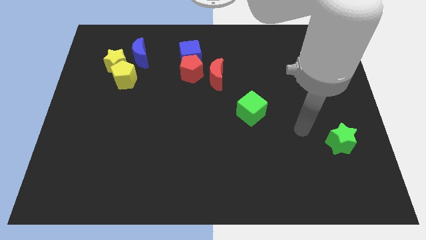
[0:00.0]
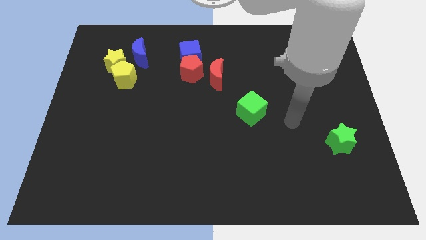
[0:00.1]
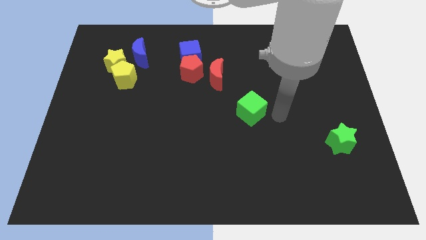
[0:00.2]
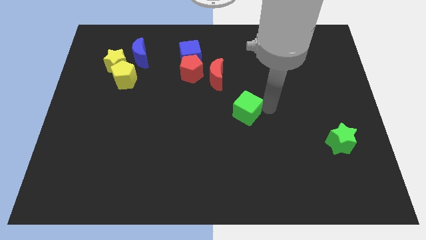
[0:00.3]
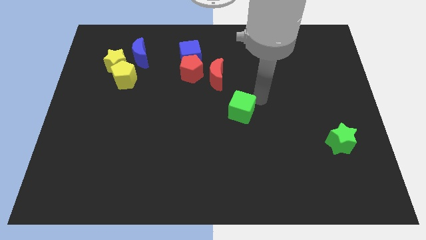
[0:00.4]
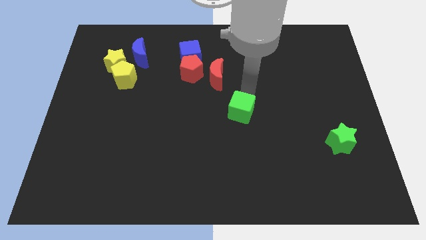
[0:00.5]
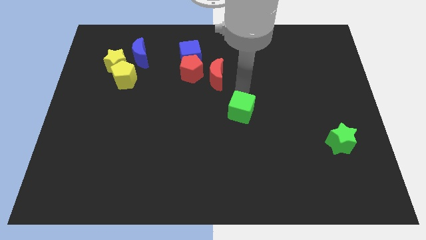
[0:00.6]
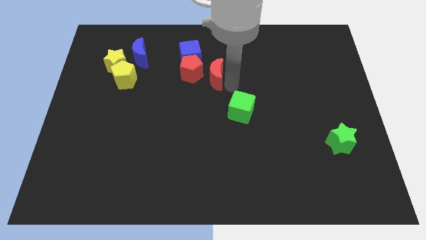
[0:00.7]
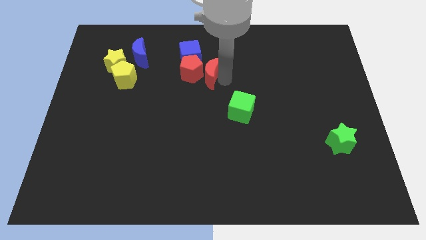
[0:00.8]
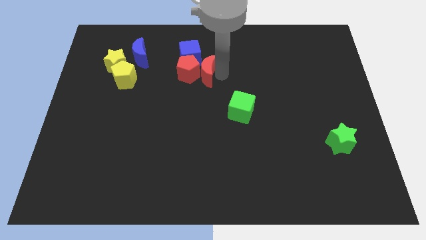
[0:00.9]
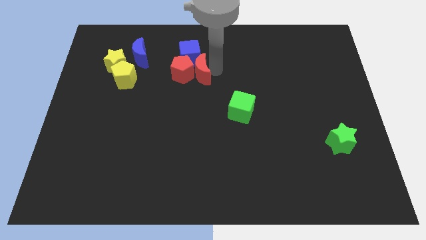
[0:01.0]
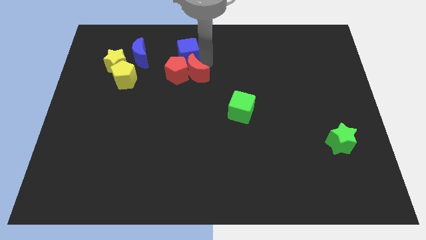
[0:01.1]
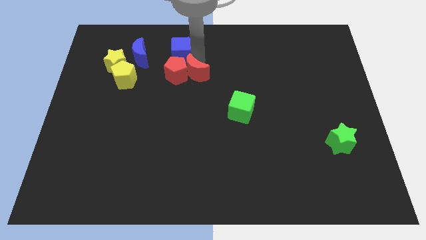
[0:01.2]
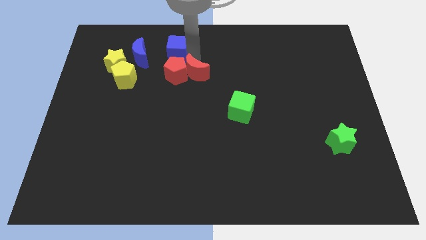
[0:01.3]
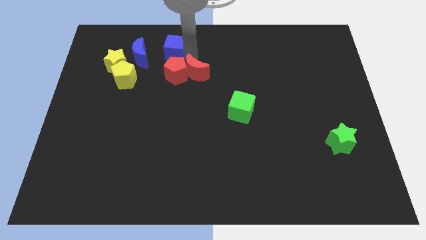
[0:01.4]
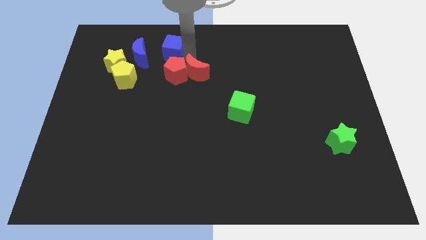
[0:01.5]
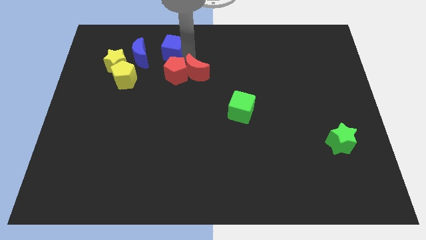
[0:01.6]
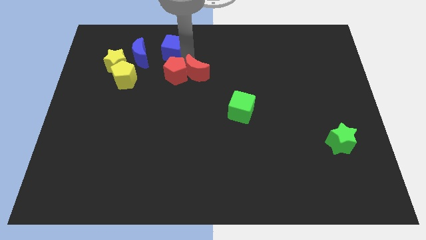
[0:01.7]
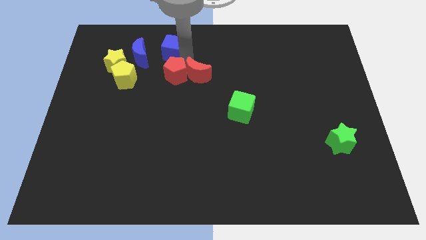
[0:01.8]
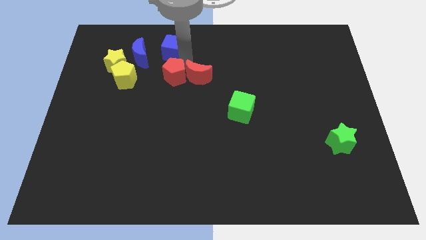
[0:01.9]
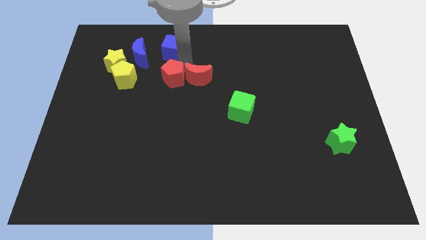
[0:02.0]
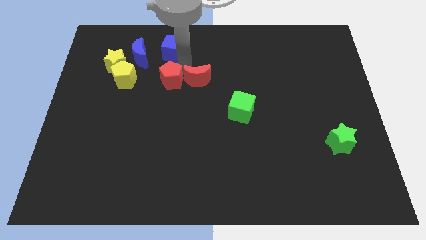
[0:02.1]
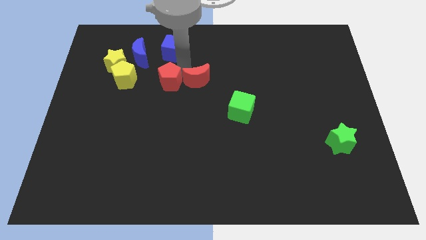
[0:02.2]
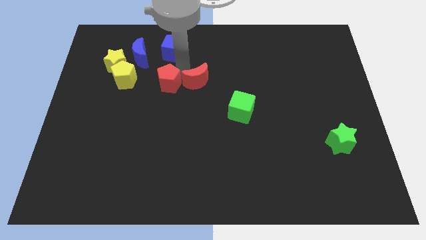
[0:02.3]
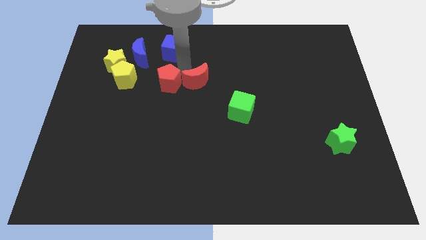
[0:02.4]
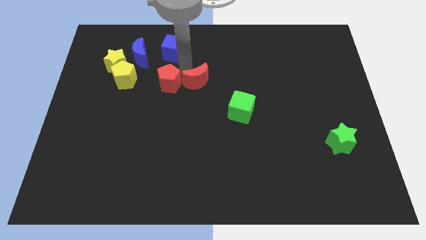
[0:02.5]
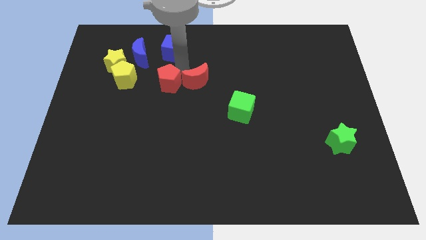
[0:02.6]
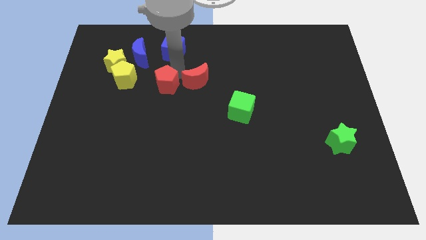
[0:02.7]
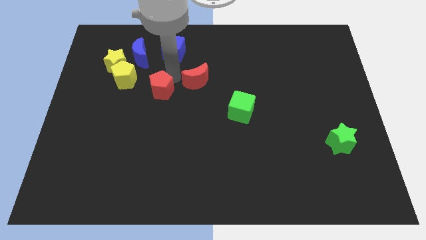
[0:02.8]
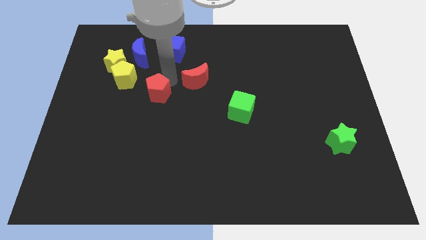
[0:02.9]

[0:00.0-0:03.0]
pull the red pentagon apart from the blue cube and red moon

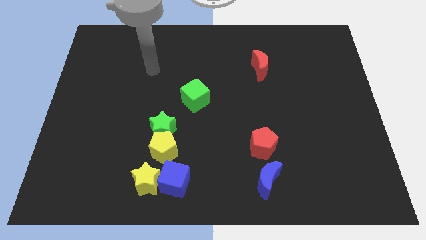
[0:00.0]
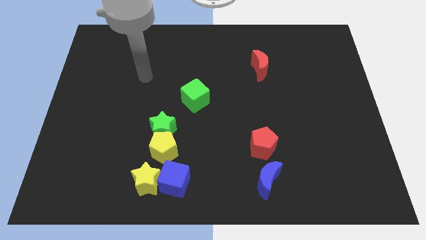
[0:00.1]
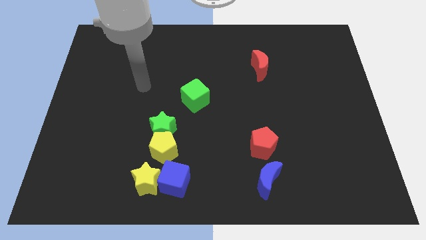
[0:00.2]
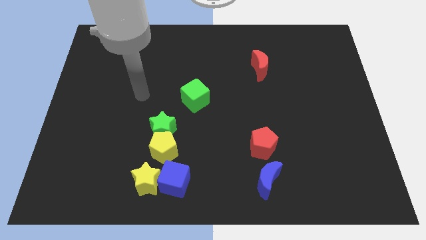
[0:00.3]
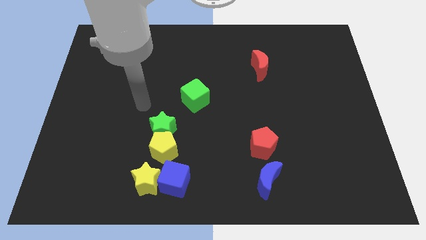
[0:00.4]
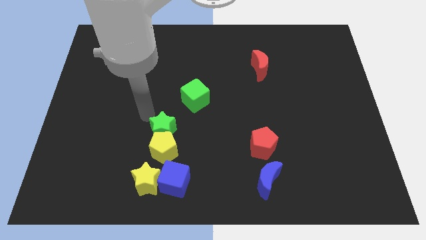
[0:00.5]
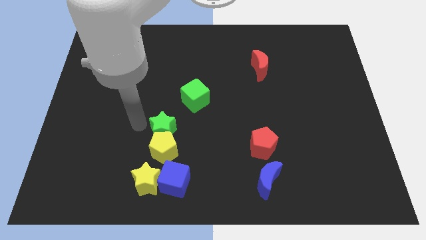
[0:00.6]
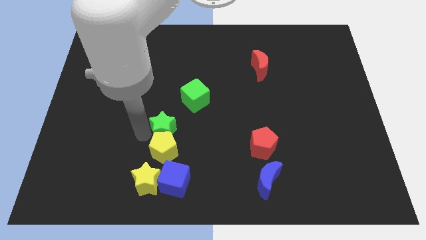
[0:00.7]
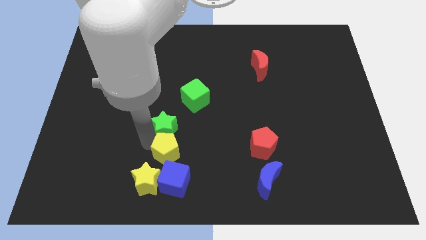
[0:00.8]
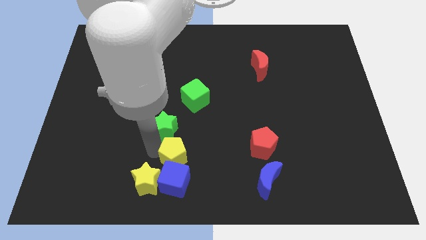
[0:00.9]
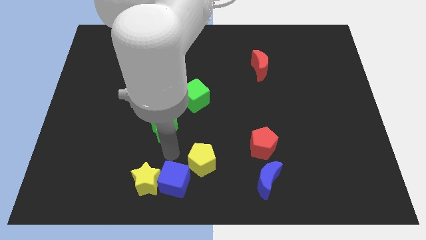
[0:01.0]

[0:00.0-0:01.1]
pull the green star apart from the yellow pentagon

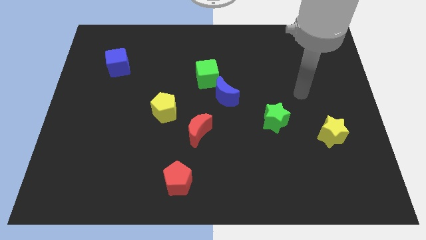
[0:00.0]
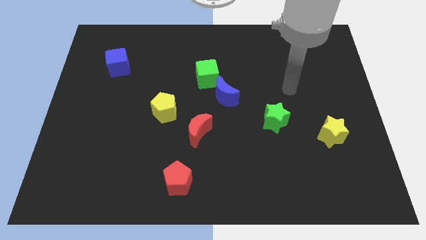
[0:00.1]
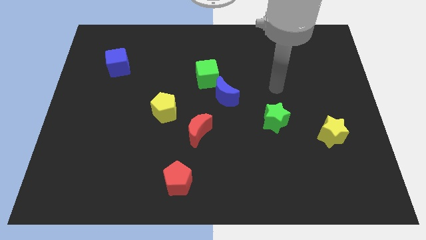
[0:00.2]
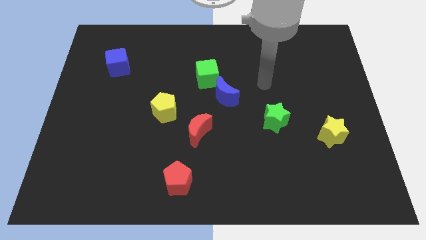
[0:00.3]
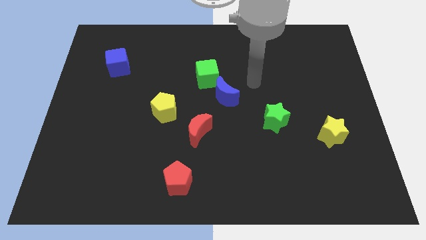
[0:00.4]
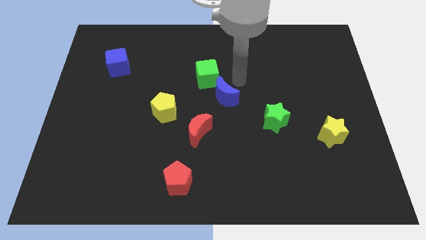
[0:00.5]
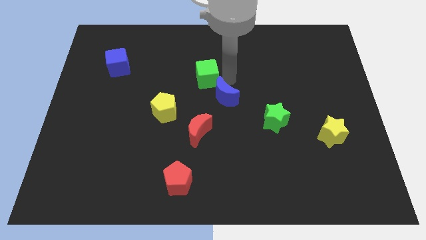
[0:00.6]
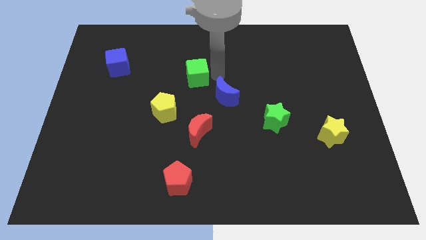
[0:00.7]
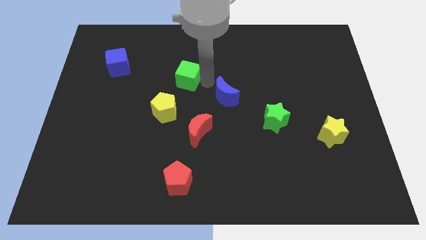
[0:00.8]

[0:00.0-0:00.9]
pull the blue moon apart from the green cube

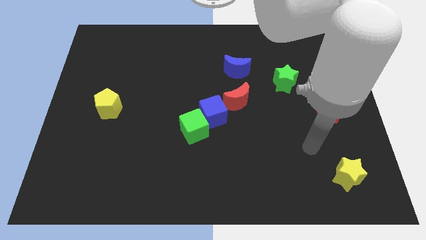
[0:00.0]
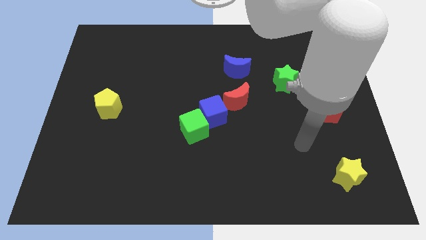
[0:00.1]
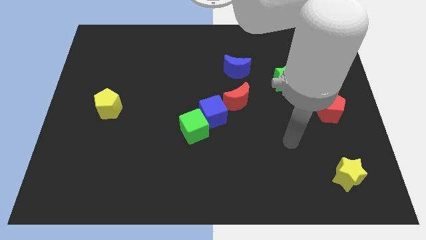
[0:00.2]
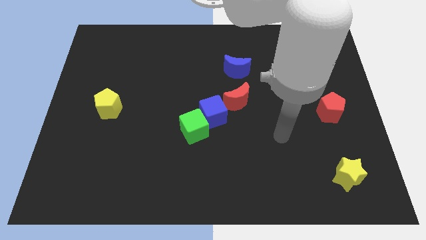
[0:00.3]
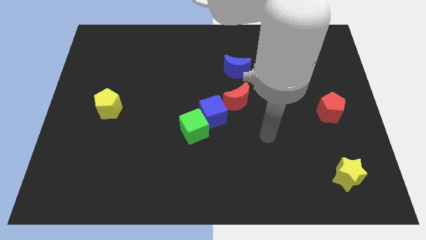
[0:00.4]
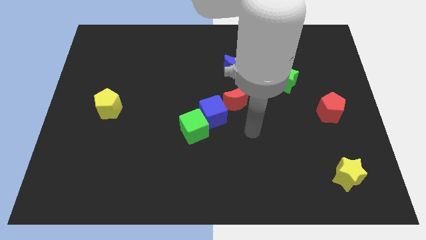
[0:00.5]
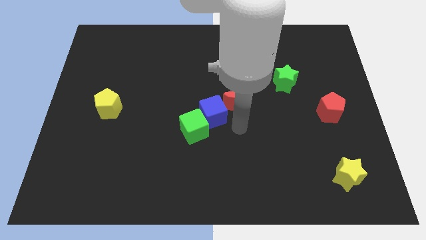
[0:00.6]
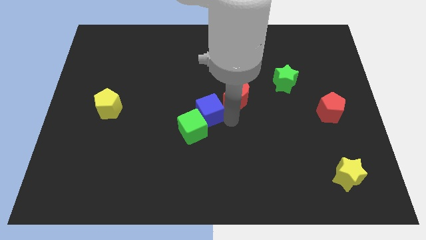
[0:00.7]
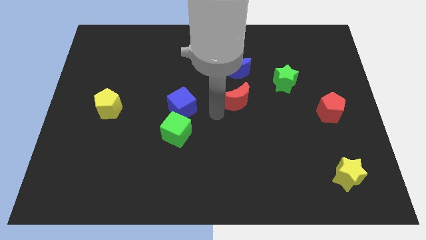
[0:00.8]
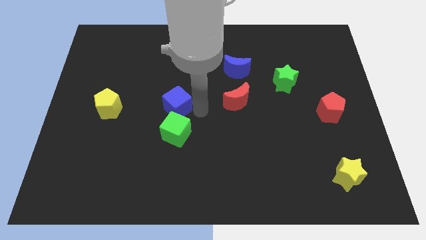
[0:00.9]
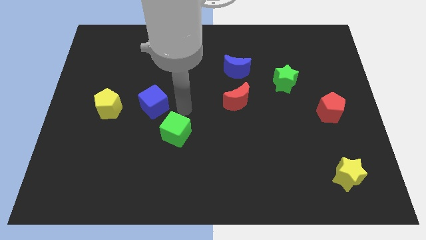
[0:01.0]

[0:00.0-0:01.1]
separate the green cube from the blue cube

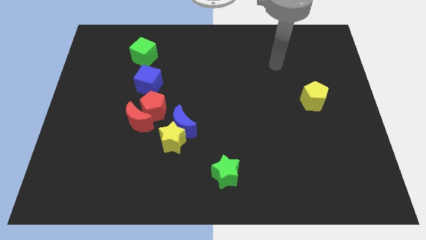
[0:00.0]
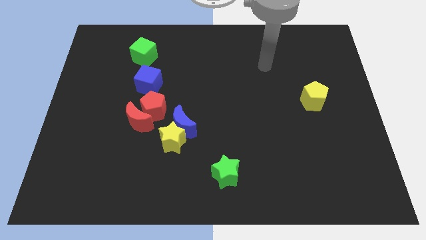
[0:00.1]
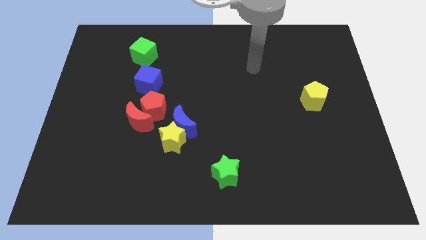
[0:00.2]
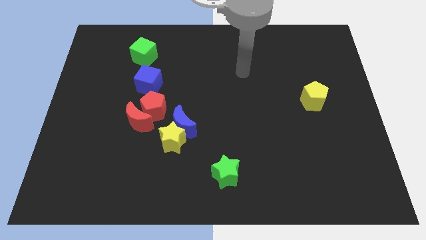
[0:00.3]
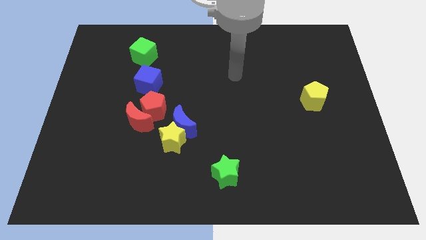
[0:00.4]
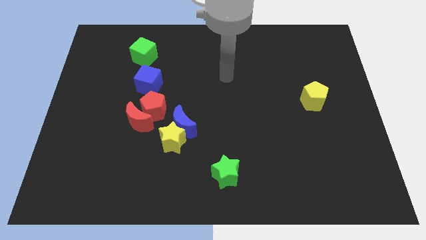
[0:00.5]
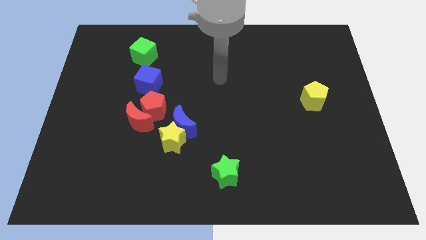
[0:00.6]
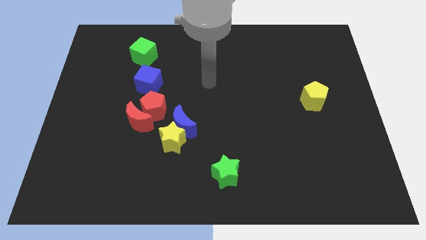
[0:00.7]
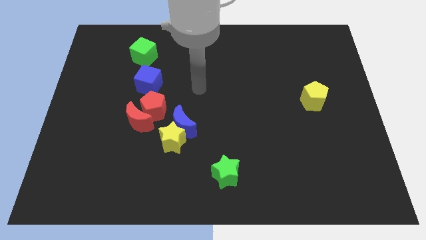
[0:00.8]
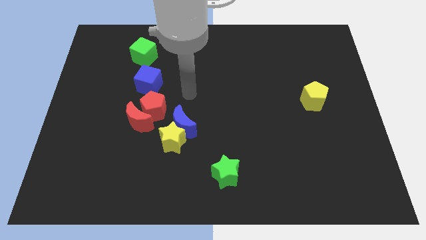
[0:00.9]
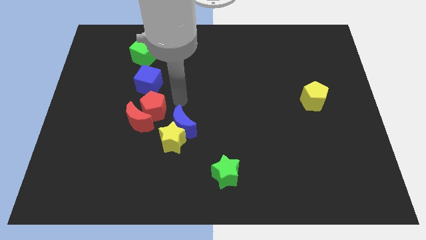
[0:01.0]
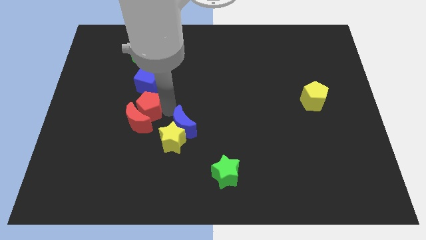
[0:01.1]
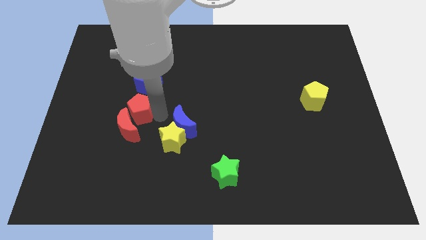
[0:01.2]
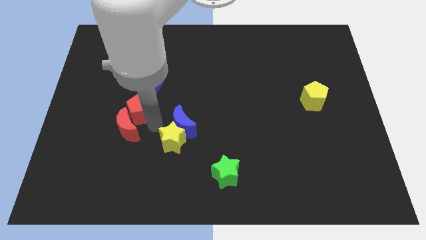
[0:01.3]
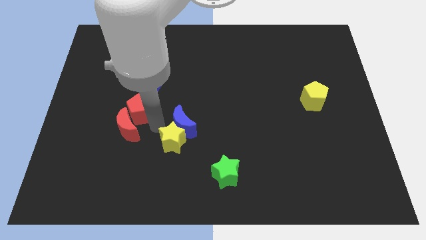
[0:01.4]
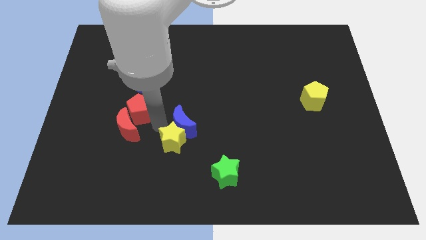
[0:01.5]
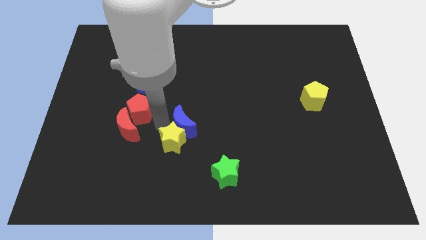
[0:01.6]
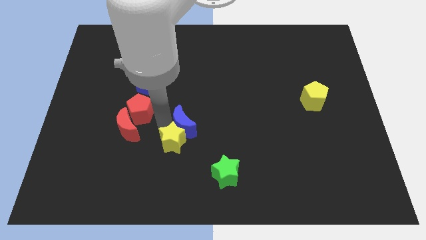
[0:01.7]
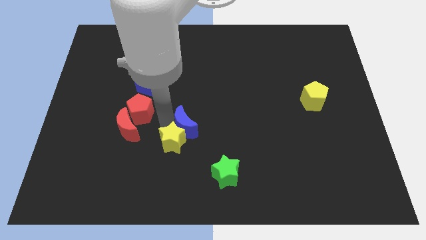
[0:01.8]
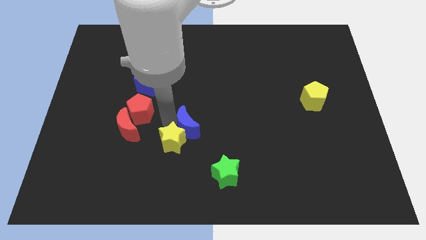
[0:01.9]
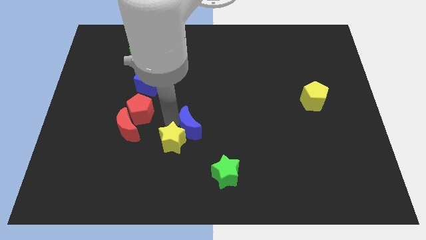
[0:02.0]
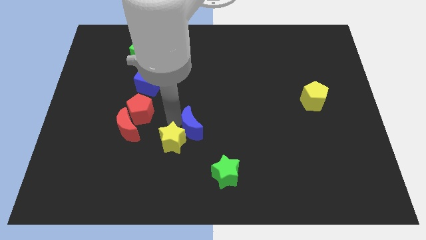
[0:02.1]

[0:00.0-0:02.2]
separate the blue moon from the yellow star, red pentagon, and red moon

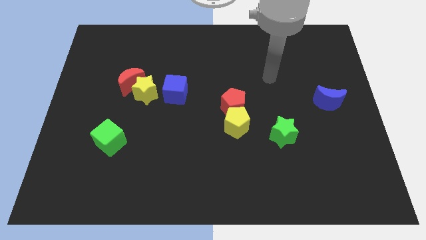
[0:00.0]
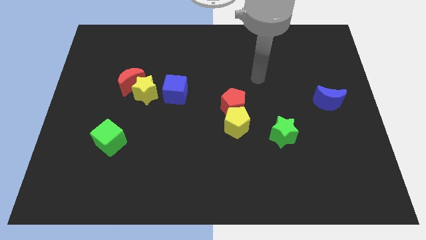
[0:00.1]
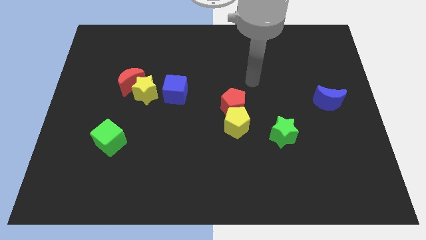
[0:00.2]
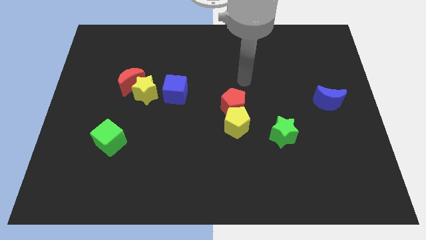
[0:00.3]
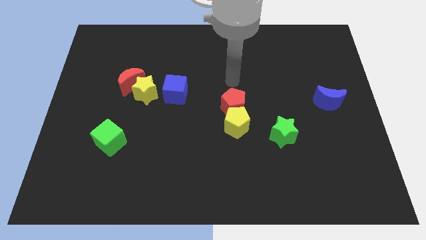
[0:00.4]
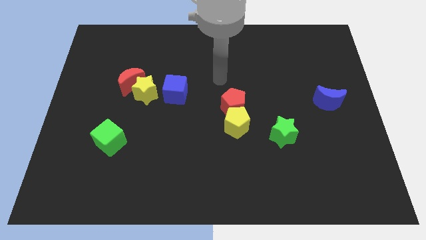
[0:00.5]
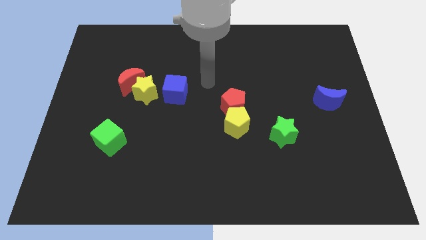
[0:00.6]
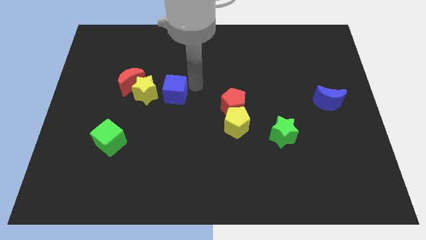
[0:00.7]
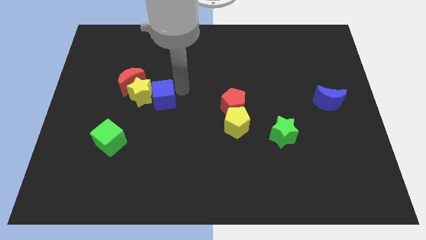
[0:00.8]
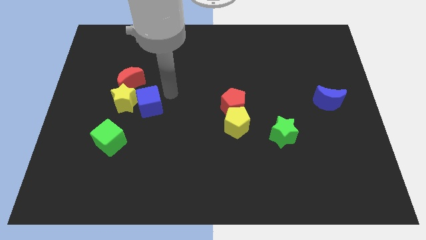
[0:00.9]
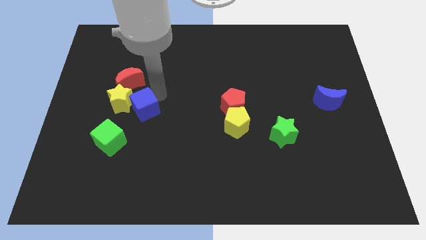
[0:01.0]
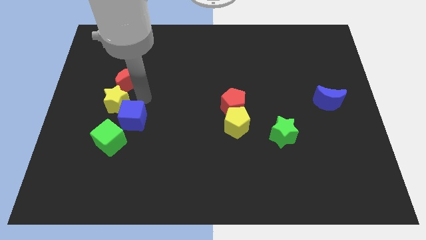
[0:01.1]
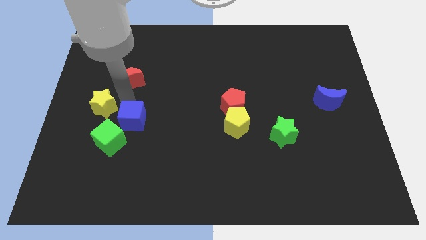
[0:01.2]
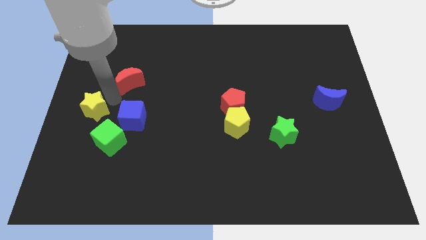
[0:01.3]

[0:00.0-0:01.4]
move the red moon away from the yellow star
